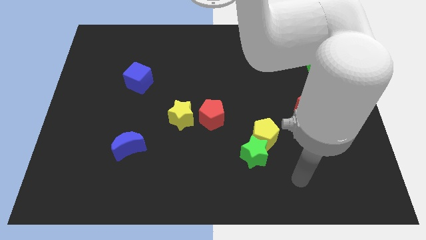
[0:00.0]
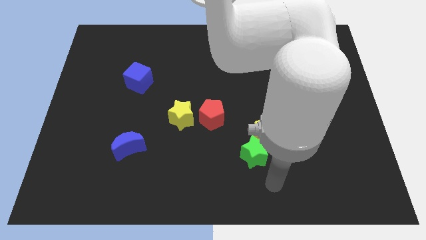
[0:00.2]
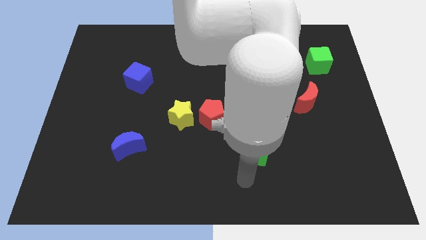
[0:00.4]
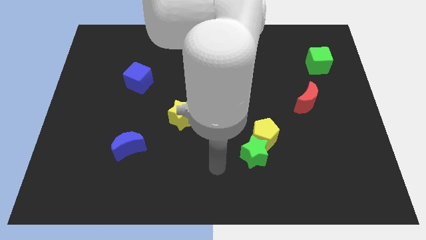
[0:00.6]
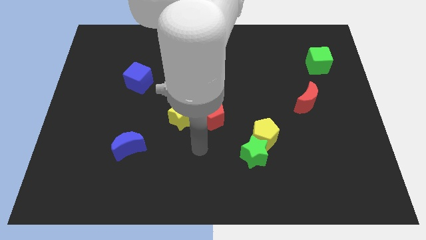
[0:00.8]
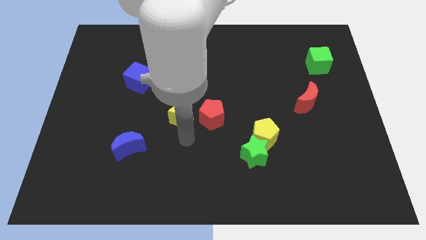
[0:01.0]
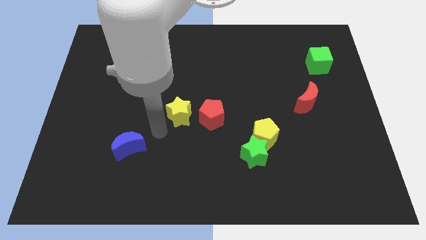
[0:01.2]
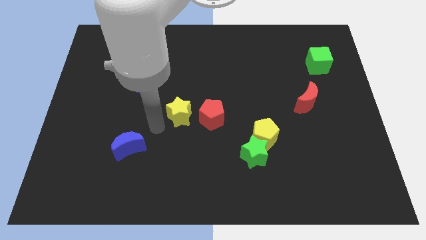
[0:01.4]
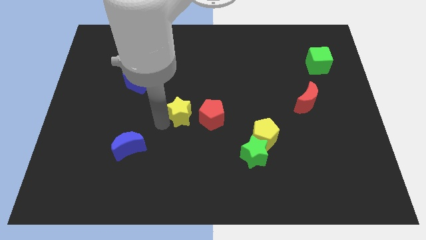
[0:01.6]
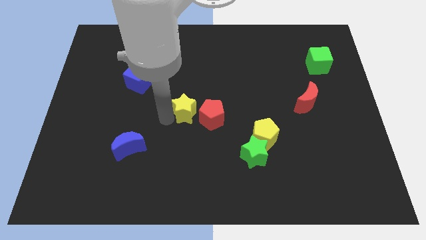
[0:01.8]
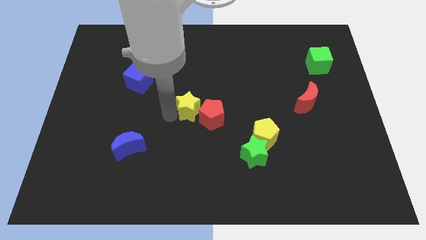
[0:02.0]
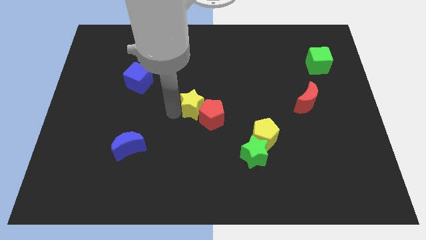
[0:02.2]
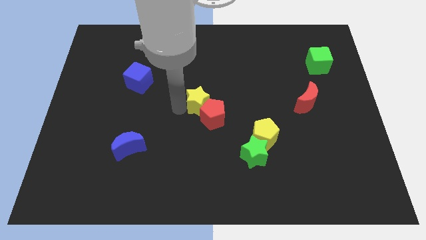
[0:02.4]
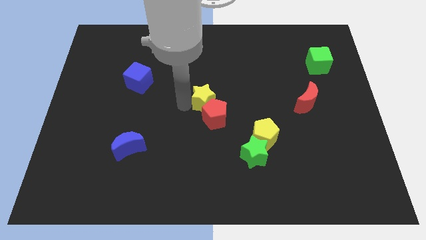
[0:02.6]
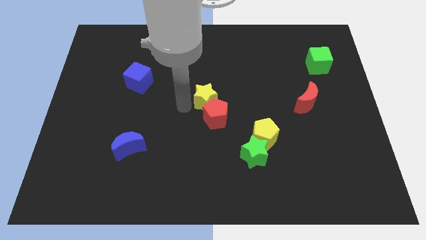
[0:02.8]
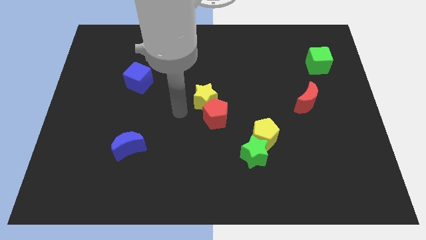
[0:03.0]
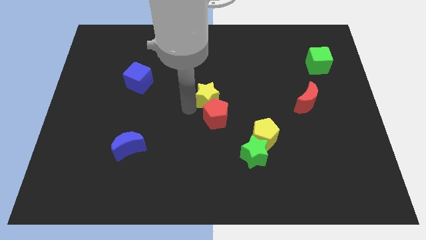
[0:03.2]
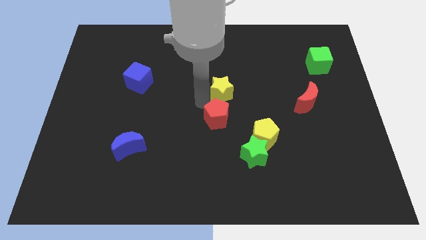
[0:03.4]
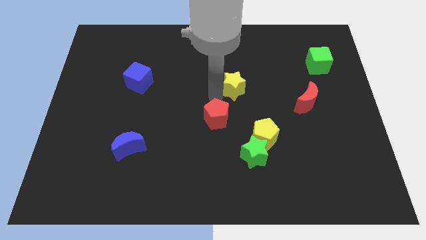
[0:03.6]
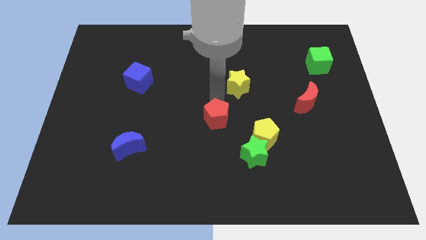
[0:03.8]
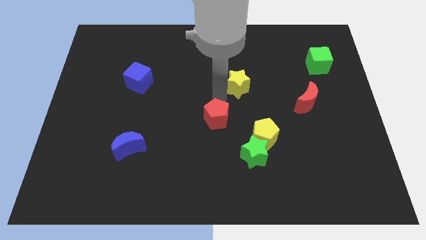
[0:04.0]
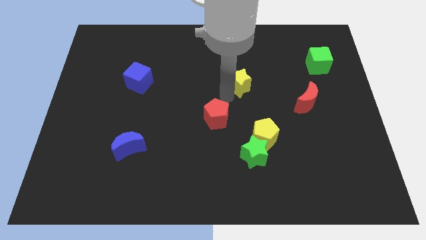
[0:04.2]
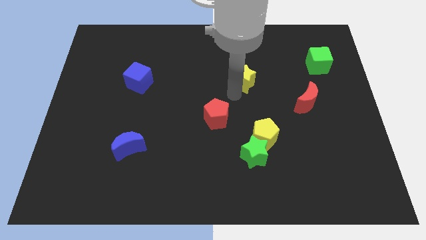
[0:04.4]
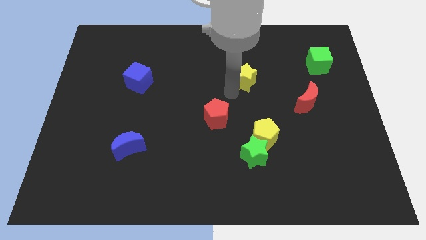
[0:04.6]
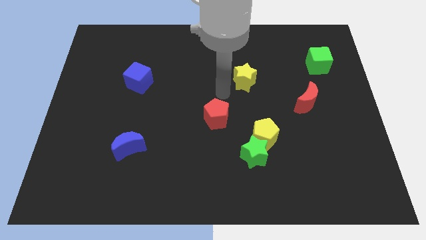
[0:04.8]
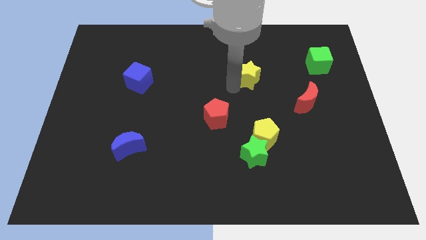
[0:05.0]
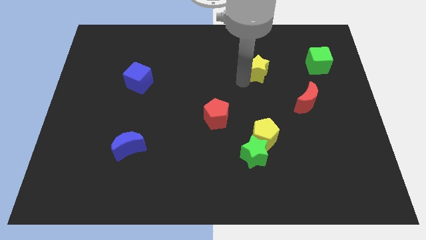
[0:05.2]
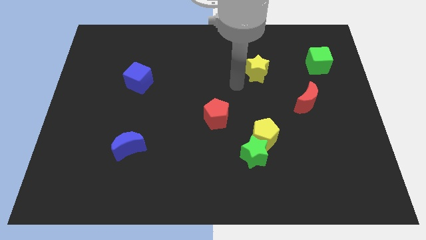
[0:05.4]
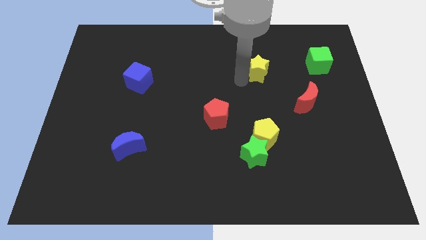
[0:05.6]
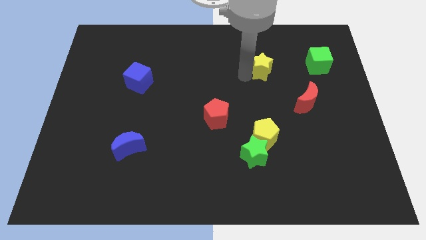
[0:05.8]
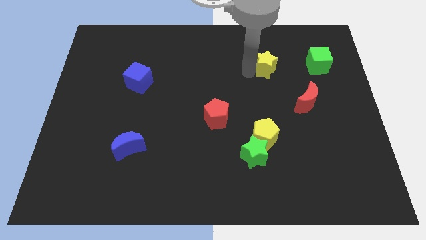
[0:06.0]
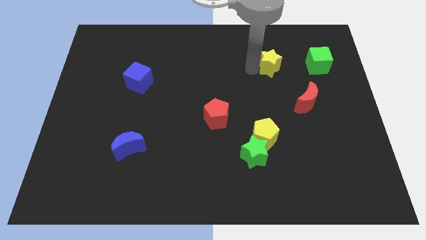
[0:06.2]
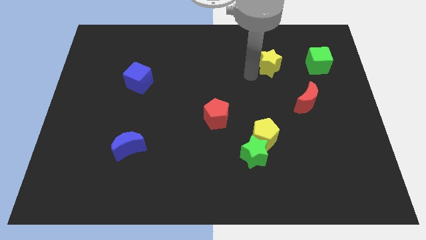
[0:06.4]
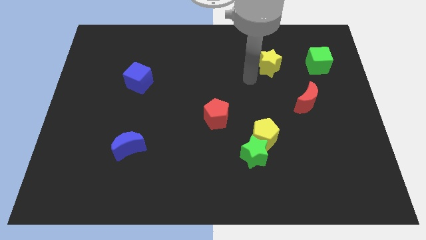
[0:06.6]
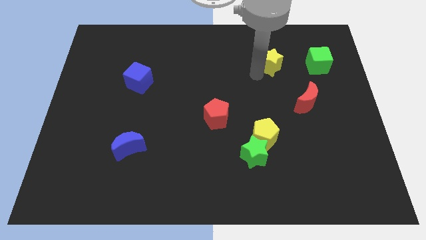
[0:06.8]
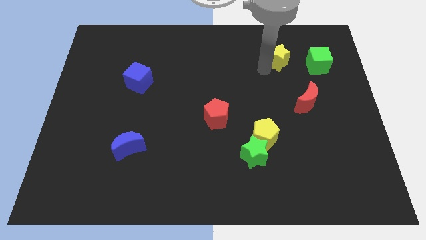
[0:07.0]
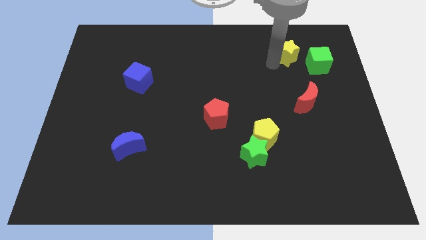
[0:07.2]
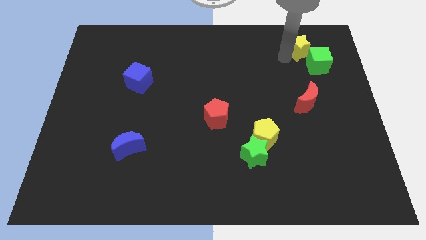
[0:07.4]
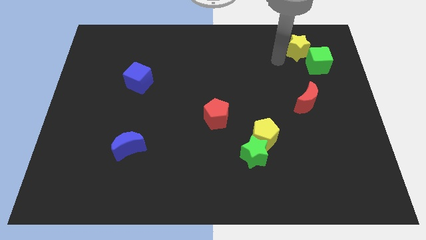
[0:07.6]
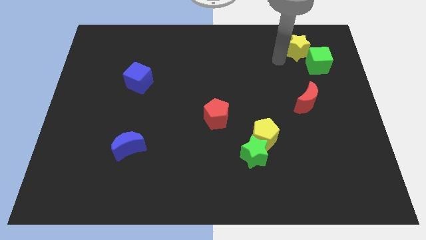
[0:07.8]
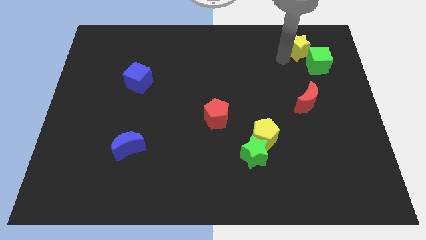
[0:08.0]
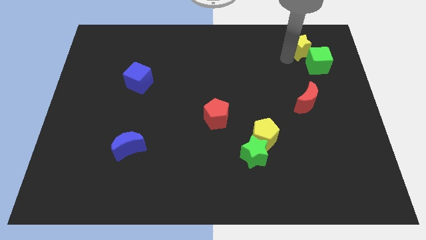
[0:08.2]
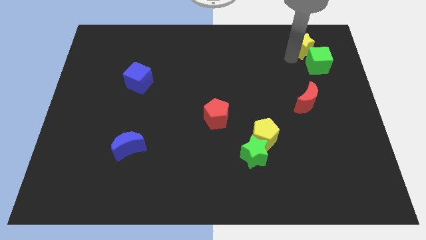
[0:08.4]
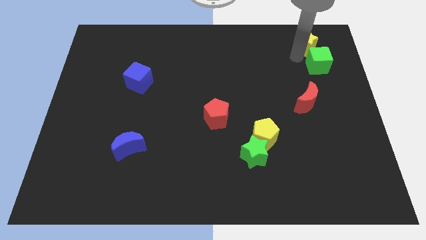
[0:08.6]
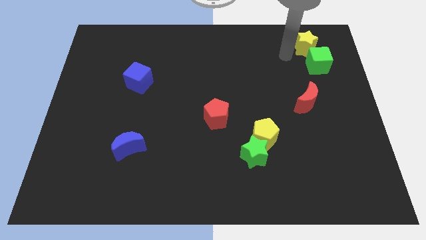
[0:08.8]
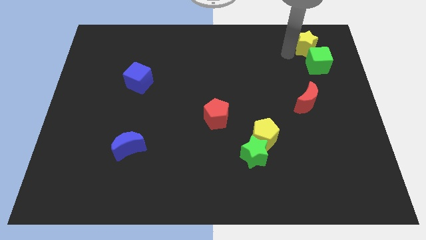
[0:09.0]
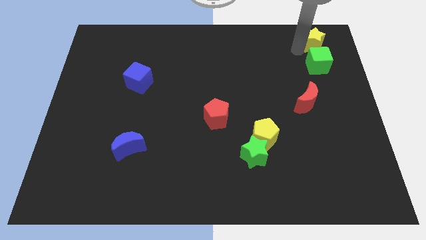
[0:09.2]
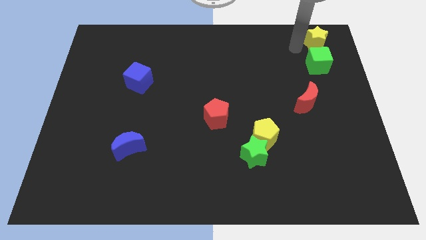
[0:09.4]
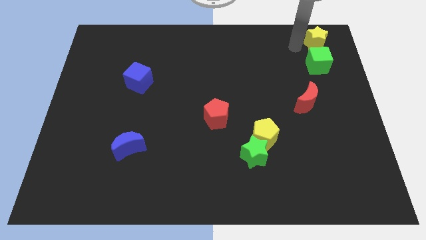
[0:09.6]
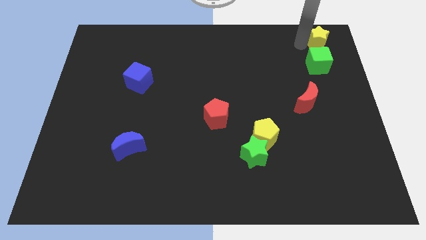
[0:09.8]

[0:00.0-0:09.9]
slide the yellow star to the upper right corner

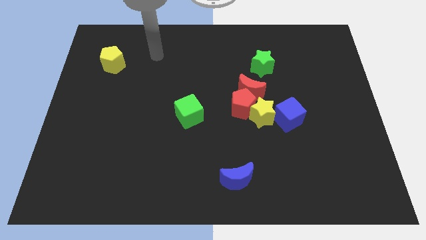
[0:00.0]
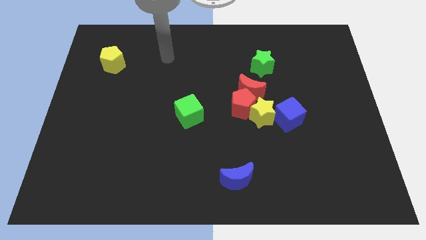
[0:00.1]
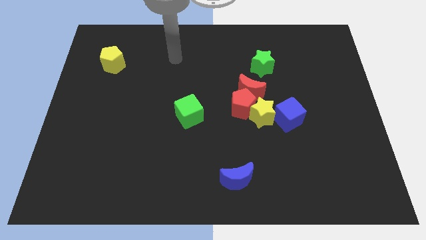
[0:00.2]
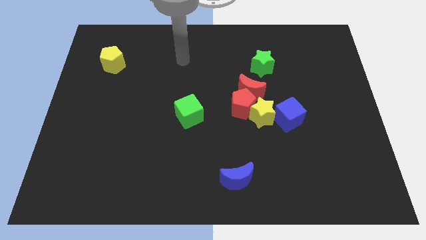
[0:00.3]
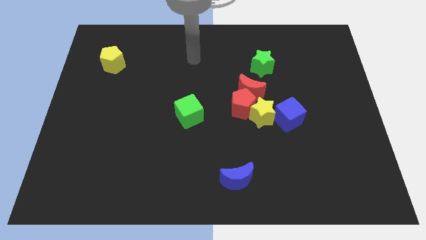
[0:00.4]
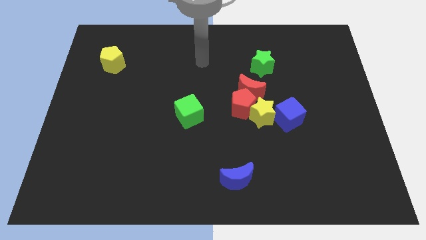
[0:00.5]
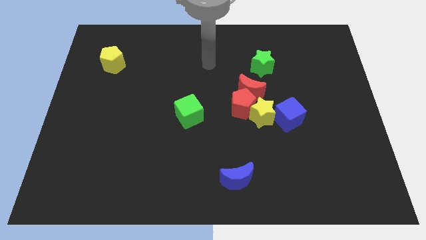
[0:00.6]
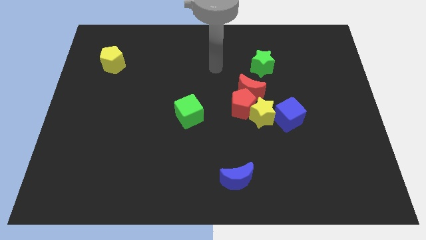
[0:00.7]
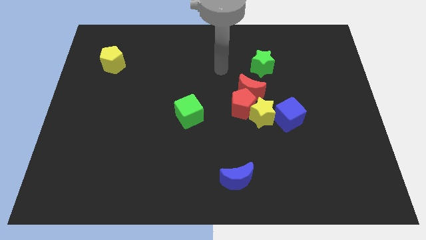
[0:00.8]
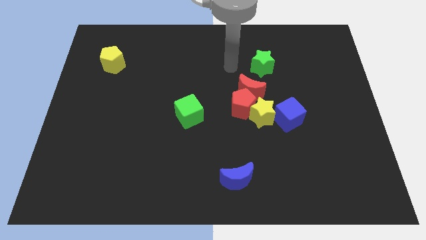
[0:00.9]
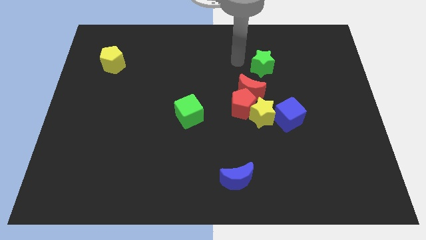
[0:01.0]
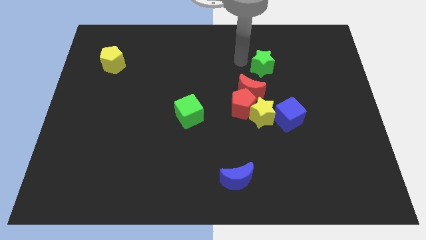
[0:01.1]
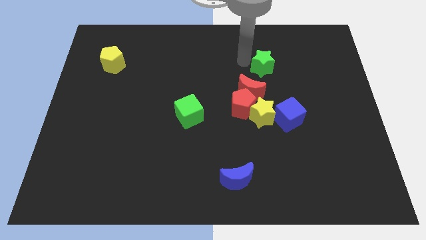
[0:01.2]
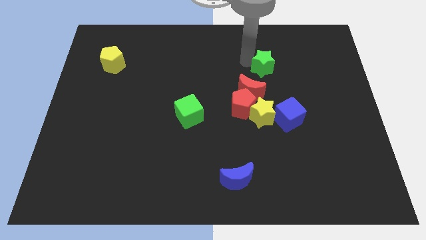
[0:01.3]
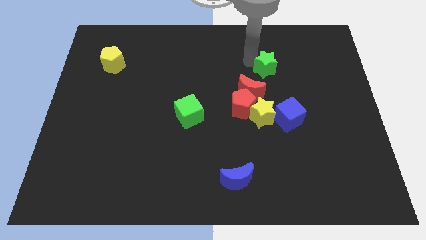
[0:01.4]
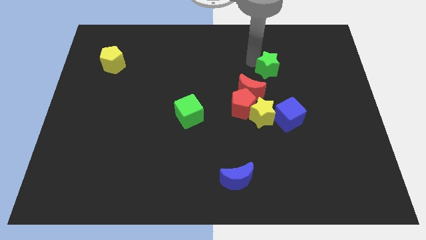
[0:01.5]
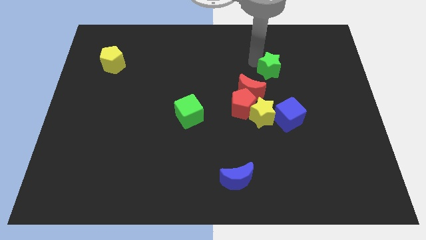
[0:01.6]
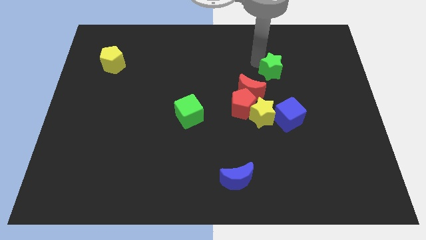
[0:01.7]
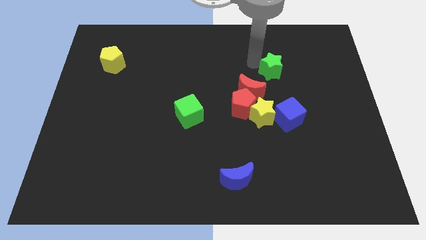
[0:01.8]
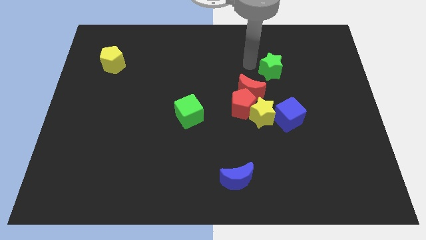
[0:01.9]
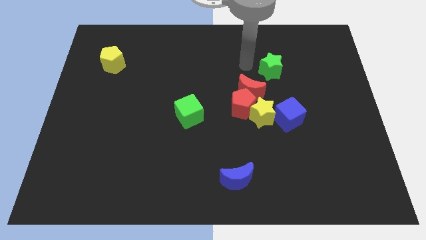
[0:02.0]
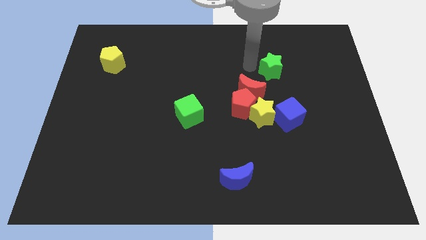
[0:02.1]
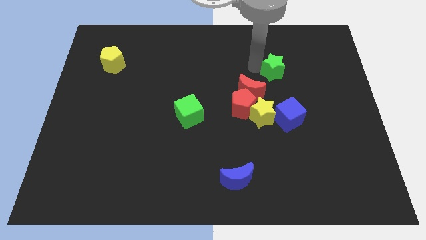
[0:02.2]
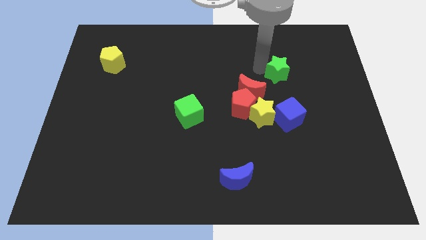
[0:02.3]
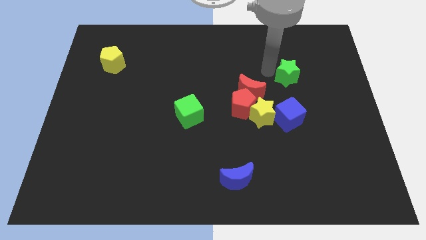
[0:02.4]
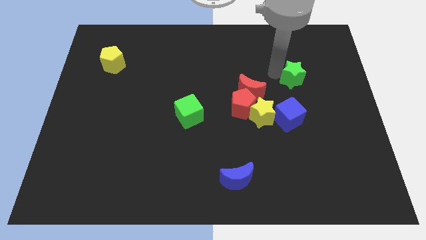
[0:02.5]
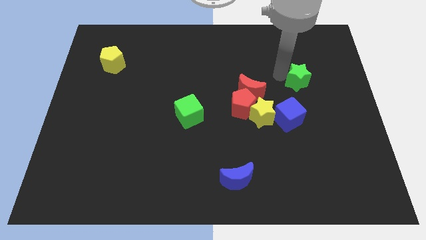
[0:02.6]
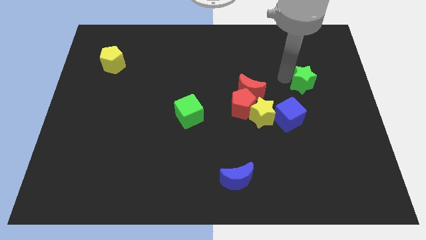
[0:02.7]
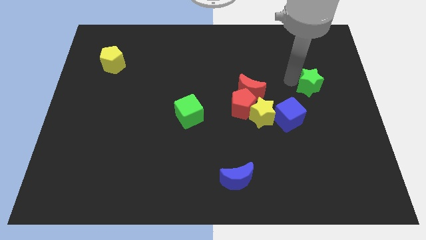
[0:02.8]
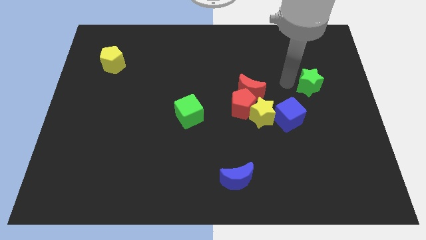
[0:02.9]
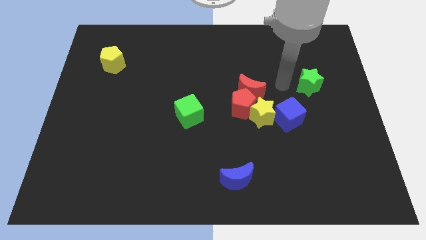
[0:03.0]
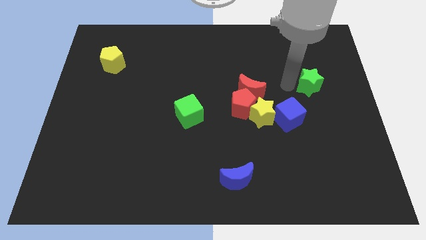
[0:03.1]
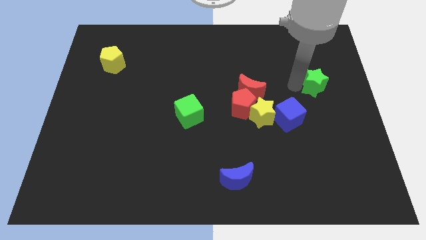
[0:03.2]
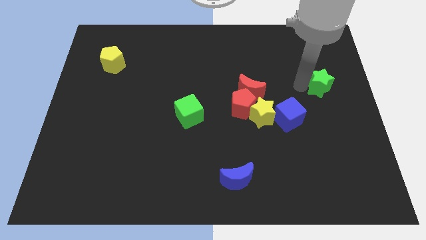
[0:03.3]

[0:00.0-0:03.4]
move the green star to the right side of the board
